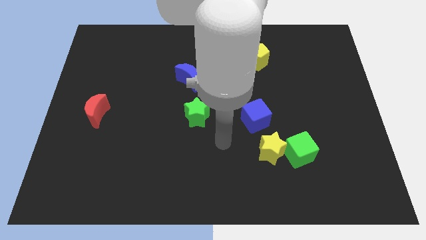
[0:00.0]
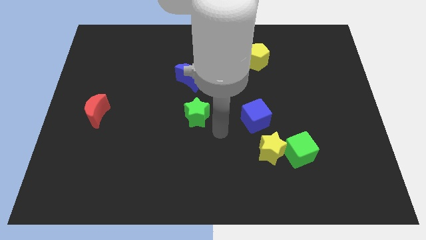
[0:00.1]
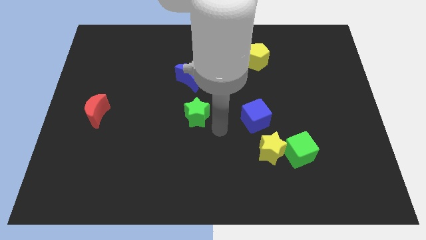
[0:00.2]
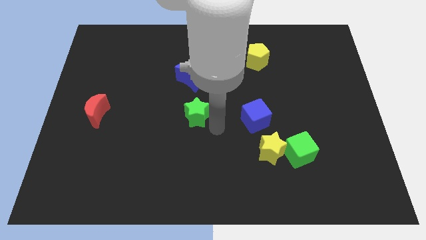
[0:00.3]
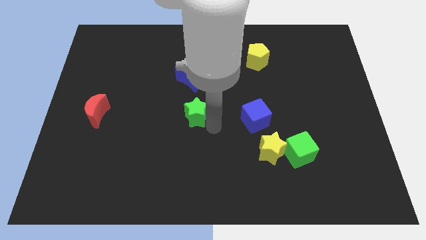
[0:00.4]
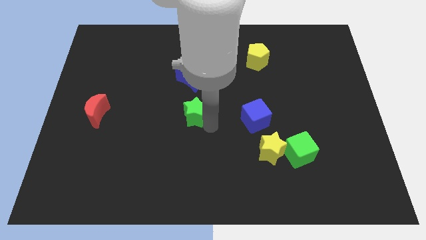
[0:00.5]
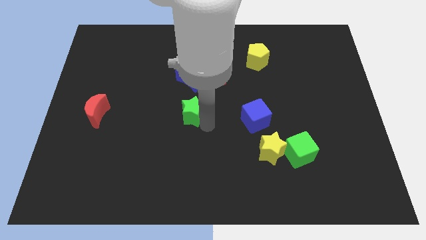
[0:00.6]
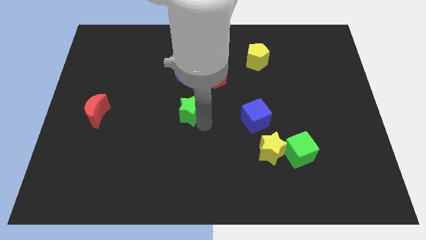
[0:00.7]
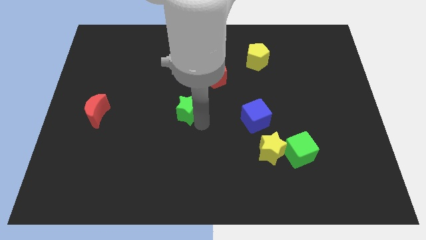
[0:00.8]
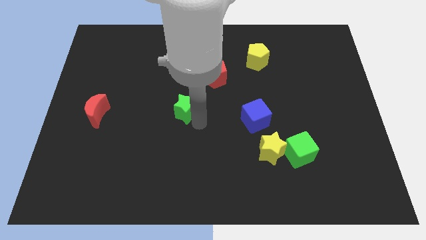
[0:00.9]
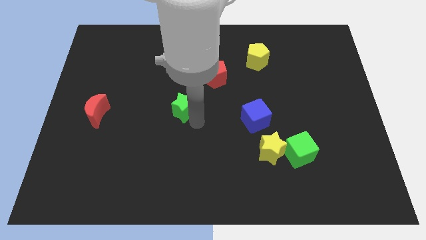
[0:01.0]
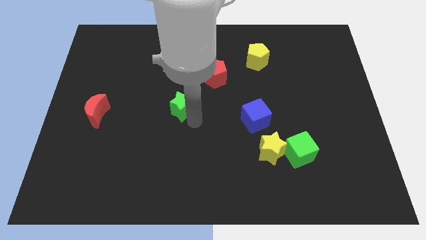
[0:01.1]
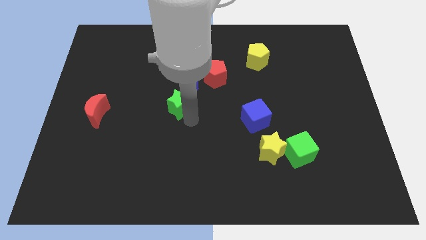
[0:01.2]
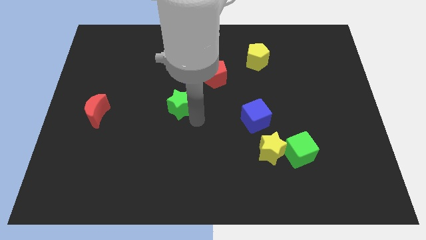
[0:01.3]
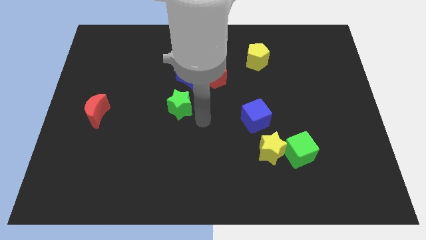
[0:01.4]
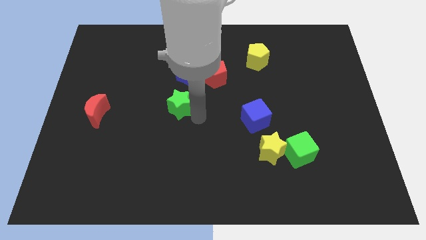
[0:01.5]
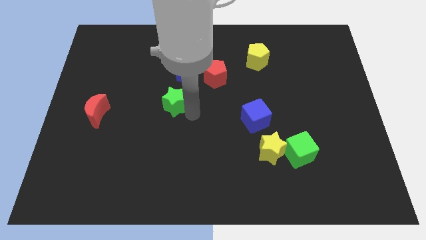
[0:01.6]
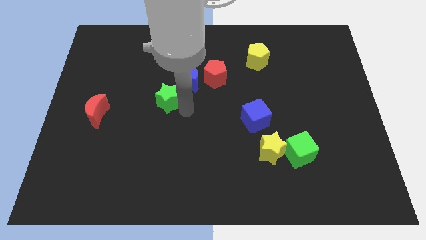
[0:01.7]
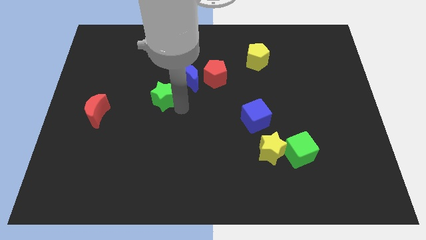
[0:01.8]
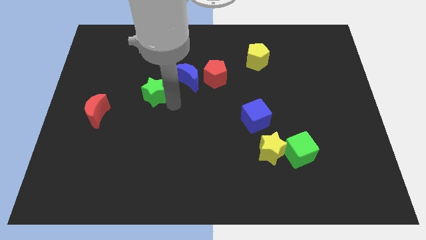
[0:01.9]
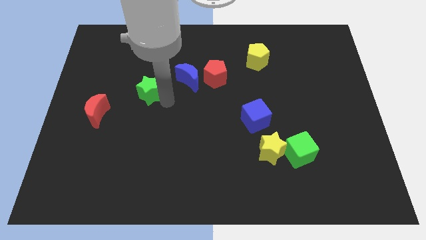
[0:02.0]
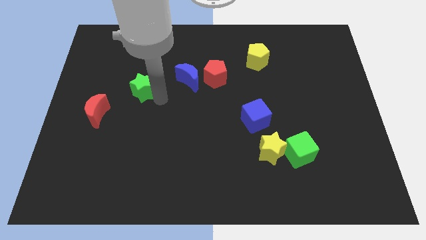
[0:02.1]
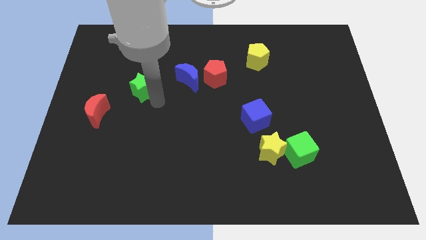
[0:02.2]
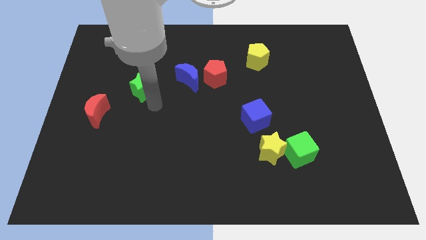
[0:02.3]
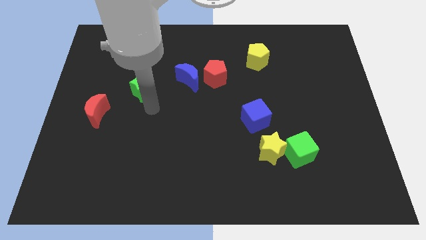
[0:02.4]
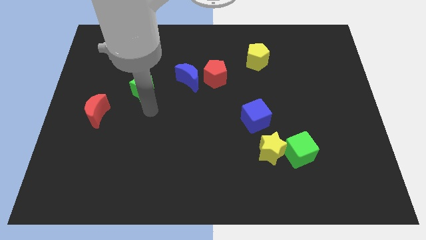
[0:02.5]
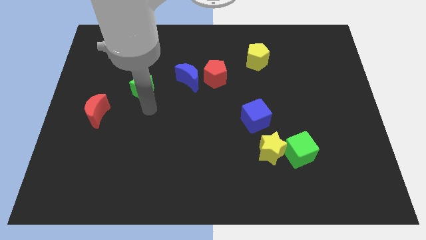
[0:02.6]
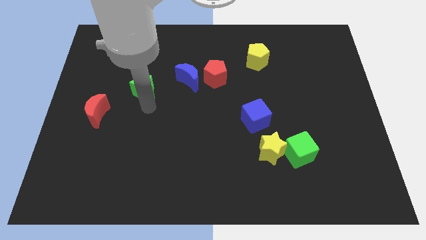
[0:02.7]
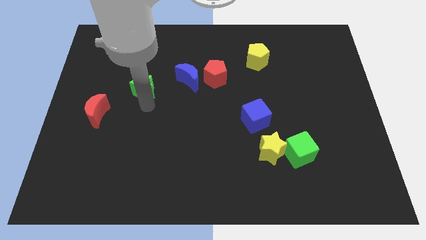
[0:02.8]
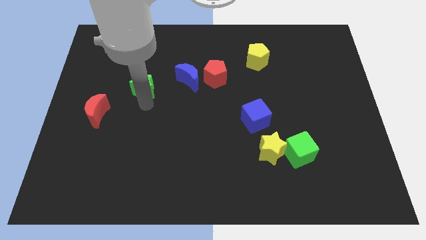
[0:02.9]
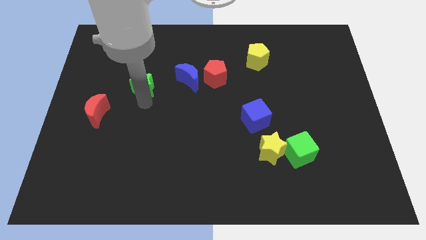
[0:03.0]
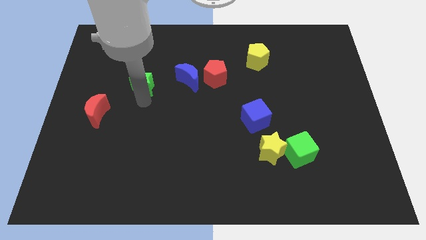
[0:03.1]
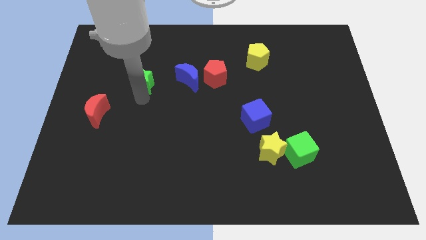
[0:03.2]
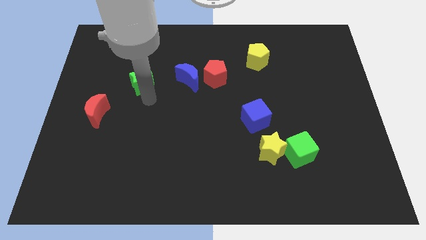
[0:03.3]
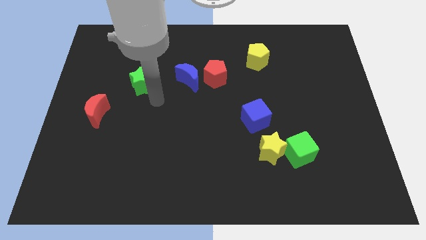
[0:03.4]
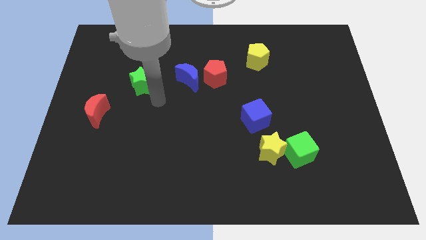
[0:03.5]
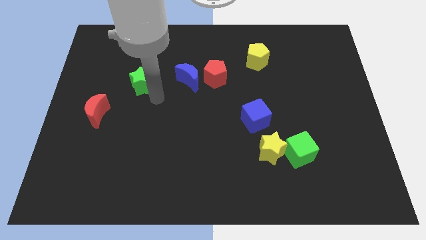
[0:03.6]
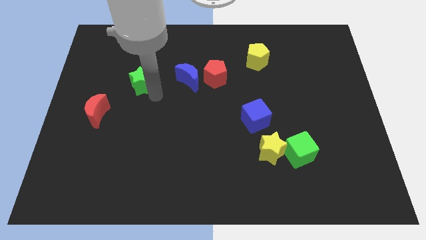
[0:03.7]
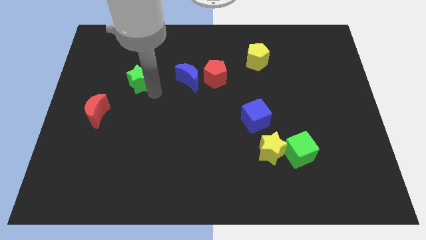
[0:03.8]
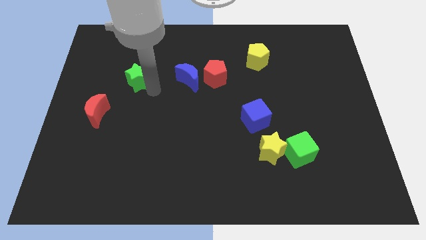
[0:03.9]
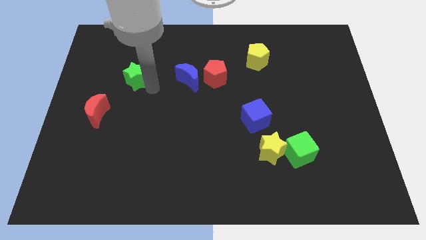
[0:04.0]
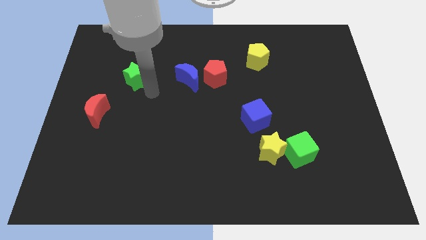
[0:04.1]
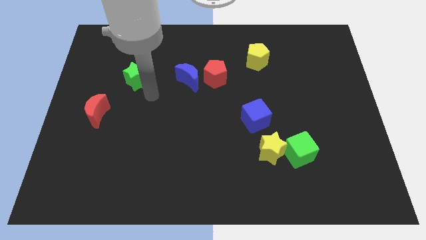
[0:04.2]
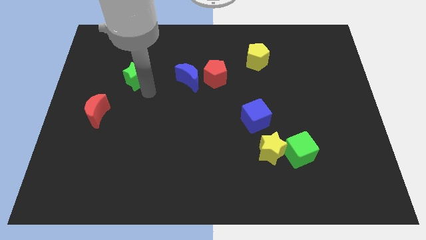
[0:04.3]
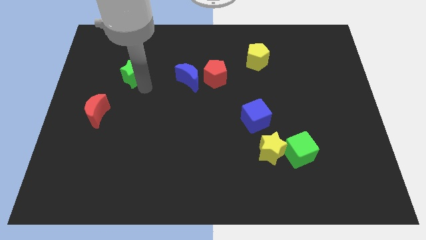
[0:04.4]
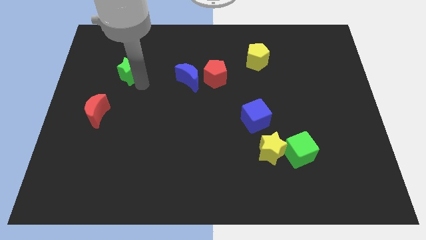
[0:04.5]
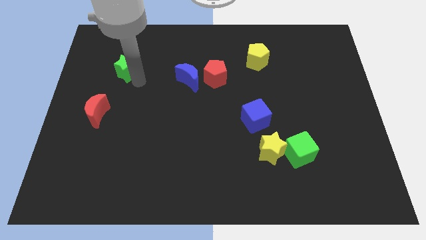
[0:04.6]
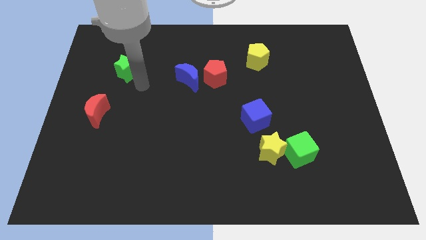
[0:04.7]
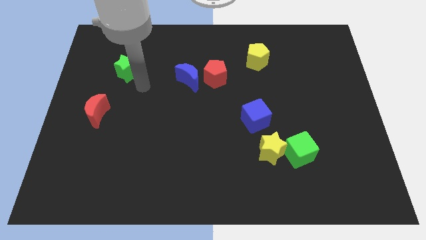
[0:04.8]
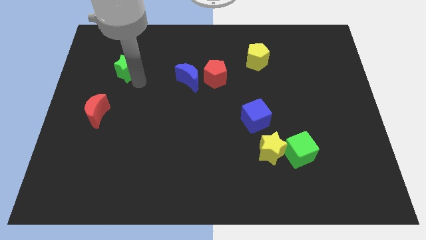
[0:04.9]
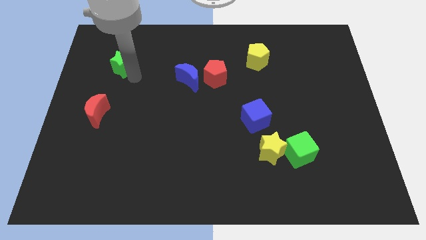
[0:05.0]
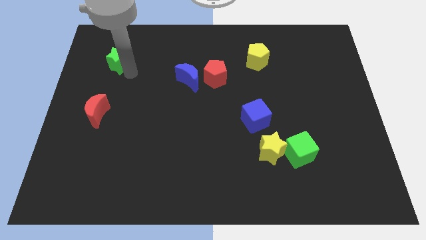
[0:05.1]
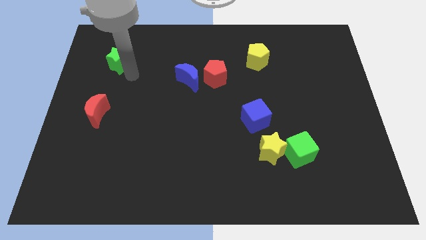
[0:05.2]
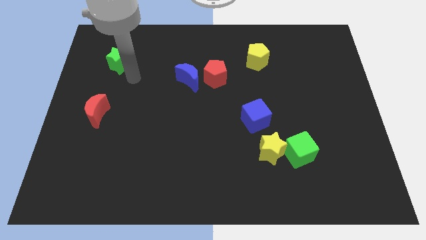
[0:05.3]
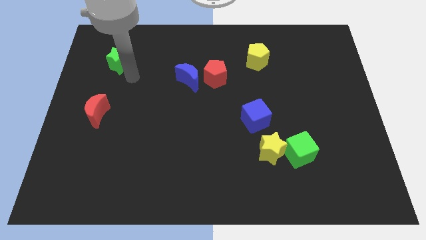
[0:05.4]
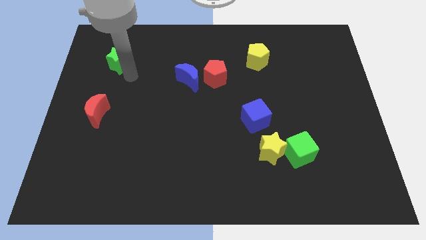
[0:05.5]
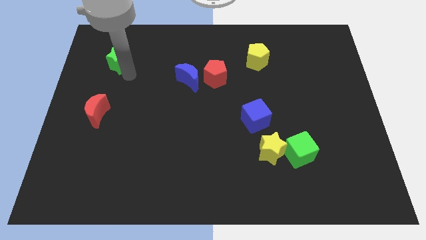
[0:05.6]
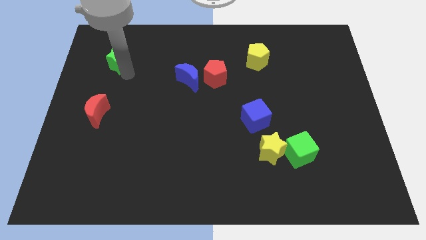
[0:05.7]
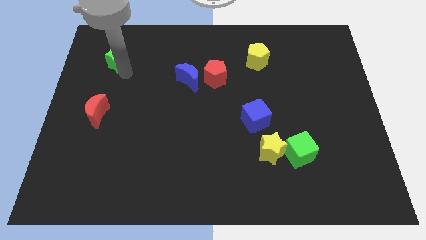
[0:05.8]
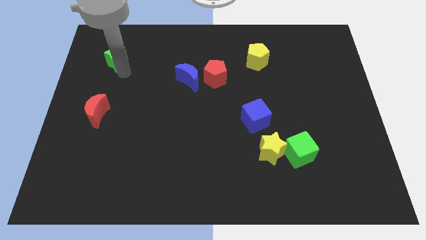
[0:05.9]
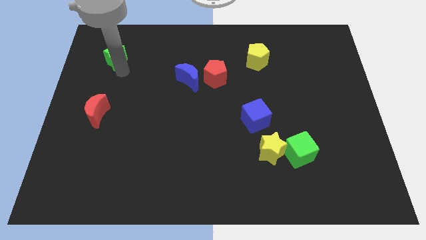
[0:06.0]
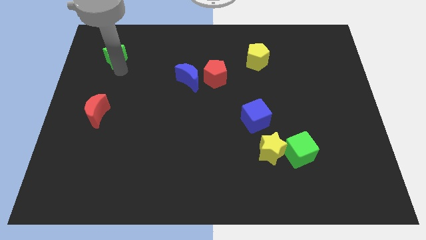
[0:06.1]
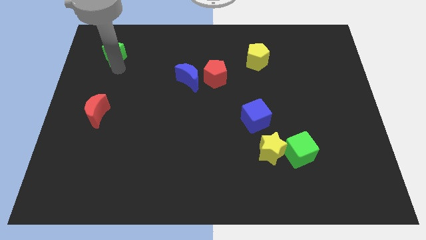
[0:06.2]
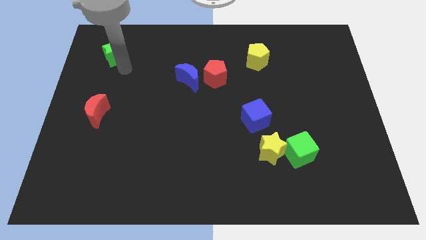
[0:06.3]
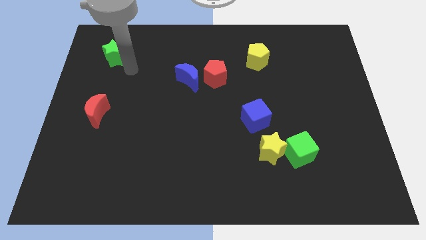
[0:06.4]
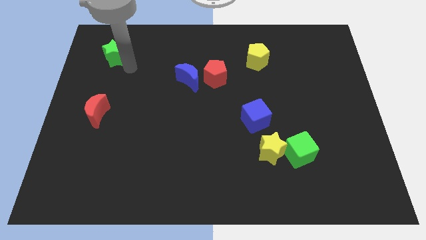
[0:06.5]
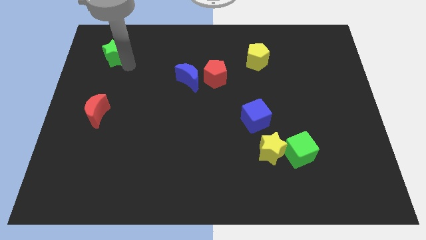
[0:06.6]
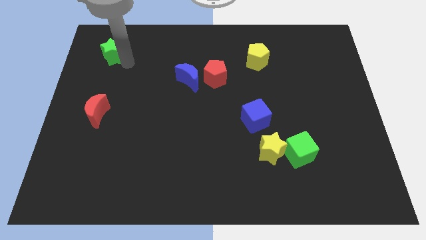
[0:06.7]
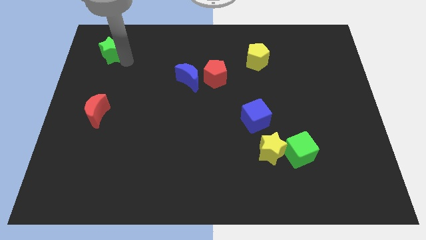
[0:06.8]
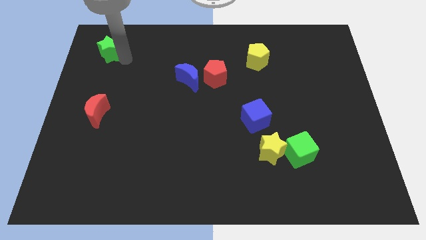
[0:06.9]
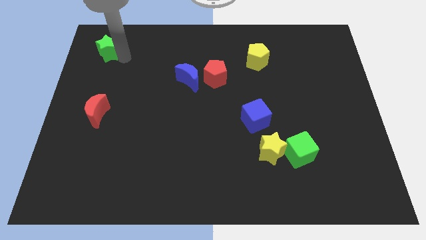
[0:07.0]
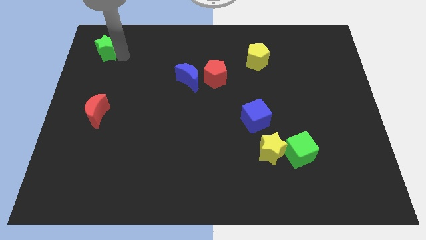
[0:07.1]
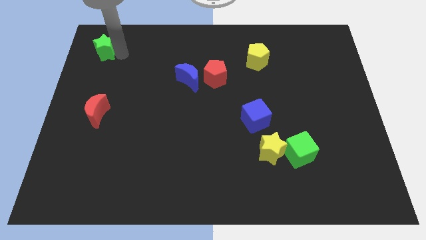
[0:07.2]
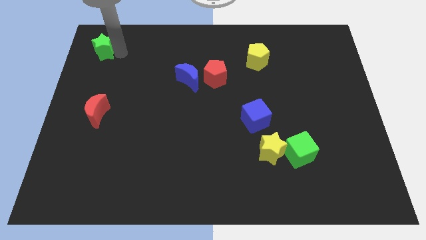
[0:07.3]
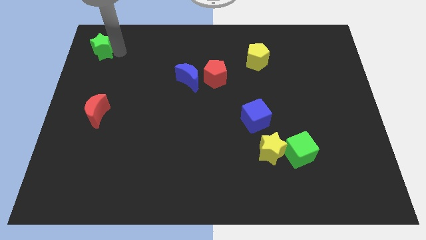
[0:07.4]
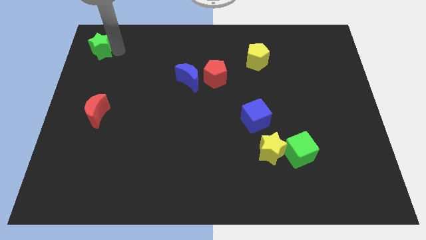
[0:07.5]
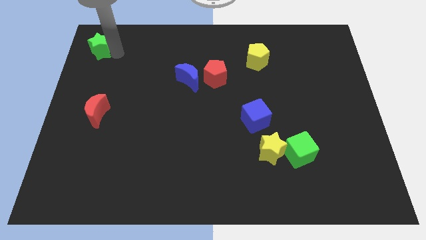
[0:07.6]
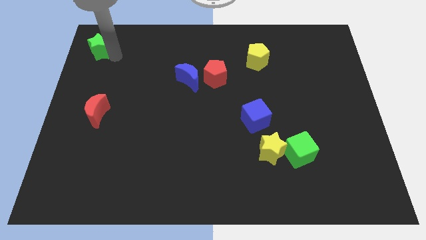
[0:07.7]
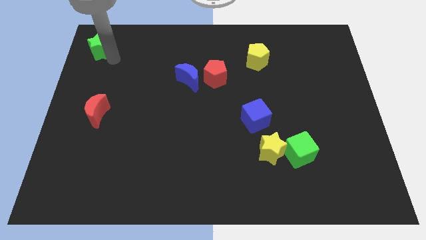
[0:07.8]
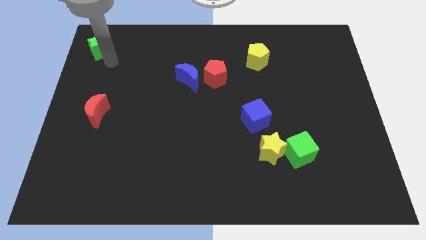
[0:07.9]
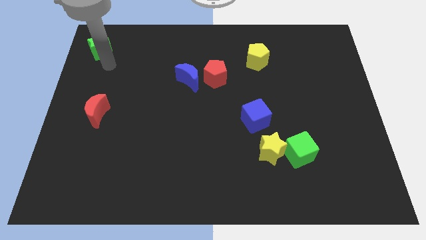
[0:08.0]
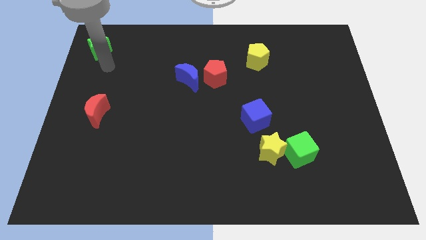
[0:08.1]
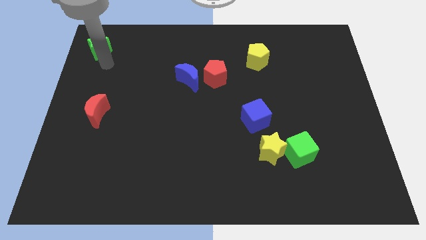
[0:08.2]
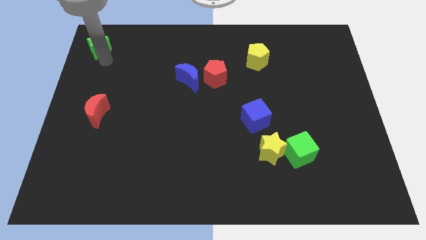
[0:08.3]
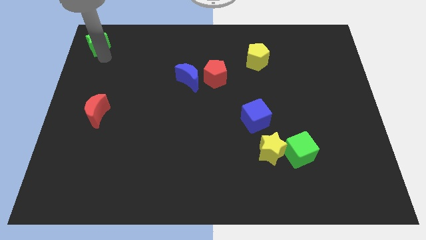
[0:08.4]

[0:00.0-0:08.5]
slide the green star to the upper left corner
